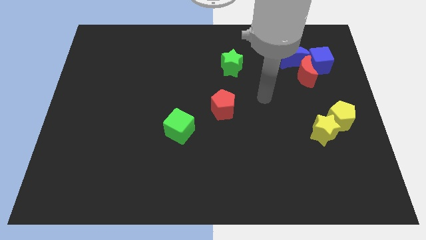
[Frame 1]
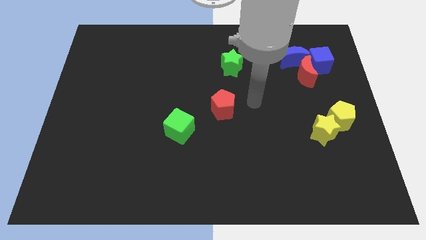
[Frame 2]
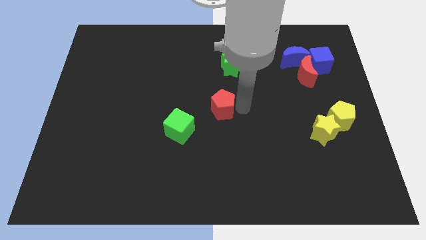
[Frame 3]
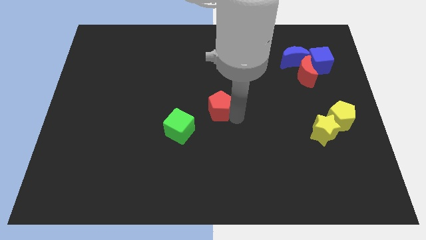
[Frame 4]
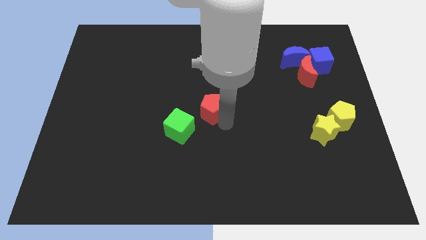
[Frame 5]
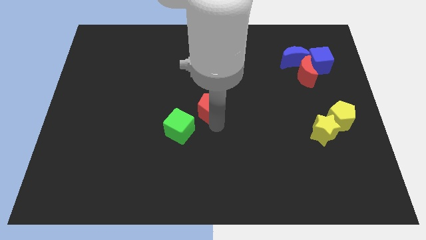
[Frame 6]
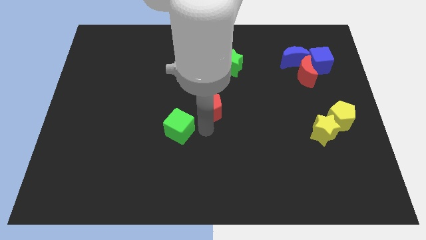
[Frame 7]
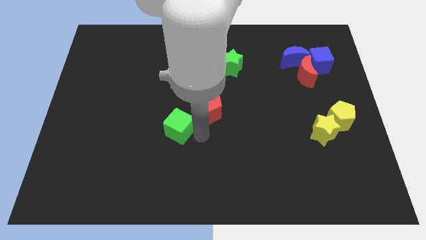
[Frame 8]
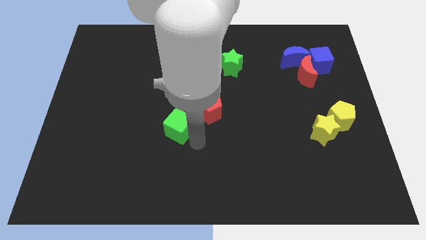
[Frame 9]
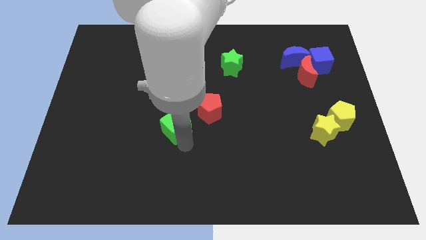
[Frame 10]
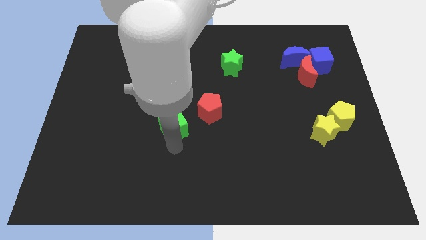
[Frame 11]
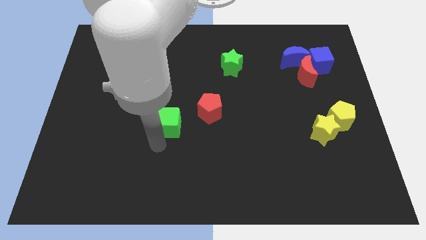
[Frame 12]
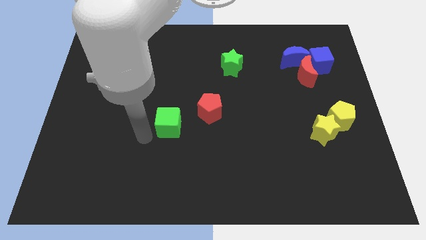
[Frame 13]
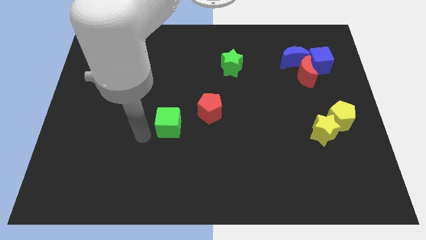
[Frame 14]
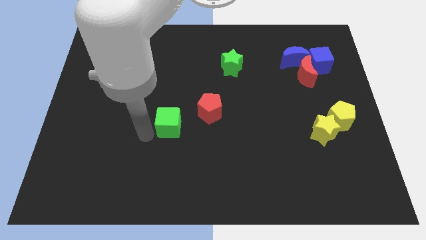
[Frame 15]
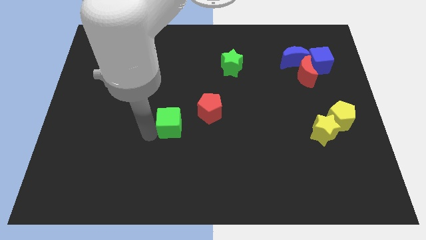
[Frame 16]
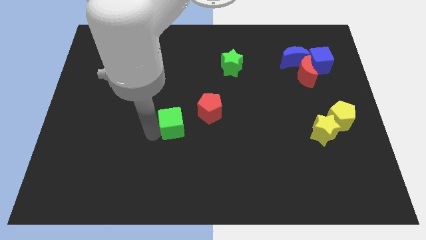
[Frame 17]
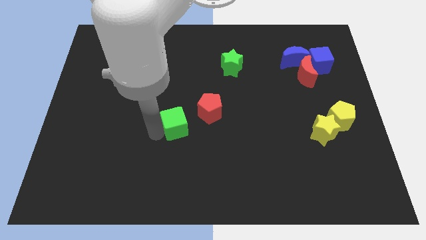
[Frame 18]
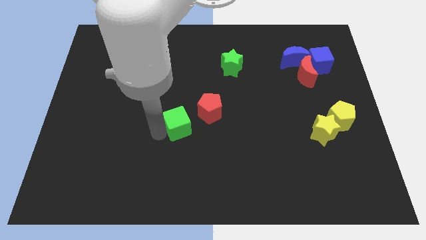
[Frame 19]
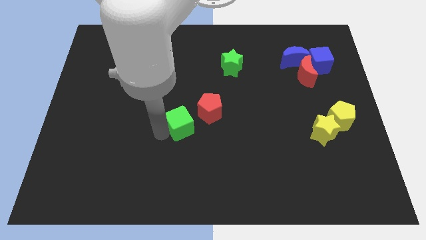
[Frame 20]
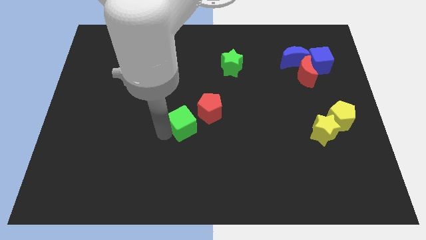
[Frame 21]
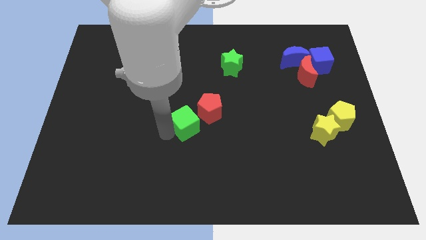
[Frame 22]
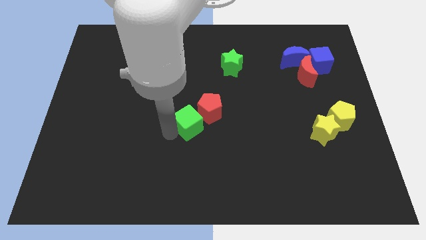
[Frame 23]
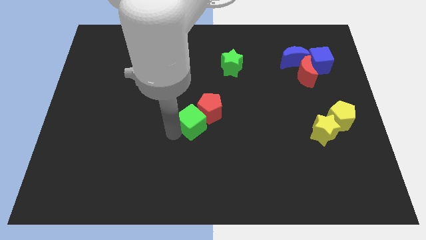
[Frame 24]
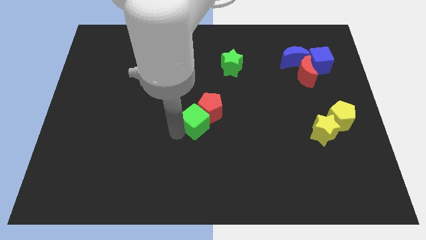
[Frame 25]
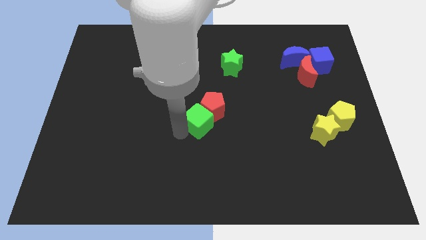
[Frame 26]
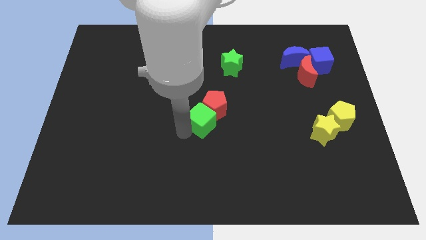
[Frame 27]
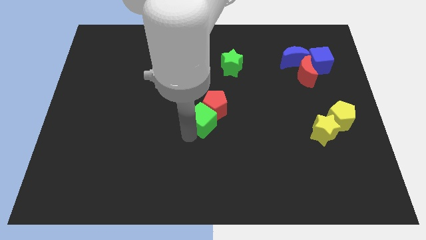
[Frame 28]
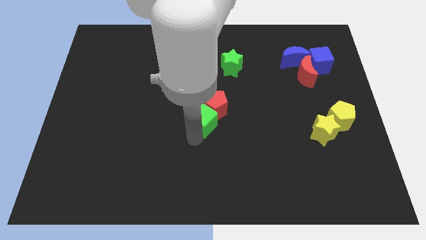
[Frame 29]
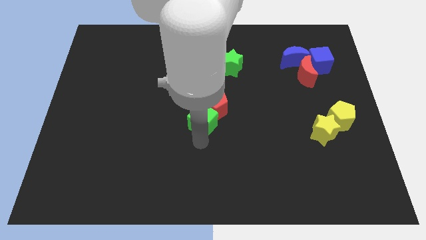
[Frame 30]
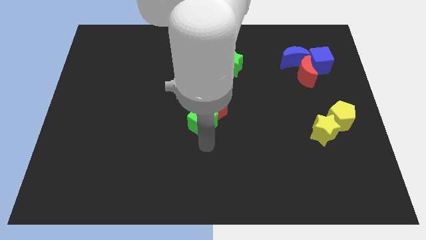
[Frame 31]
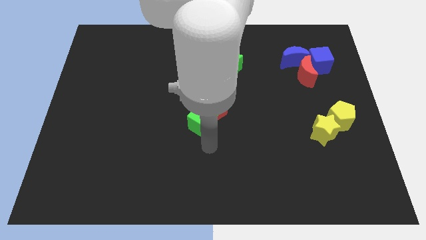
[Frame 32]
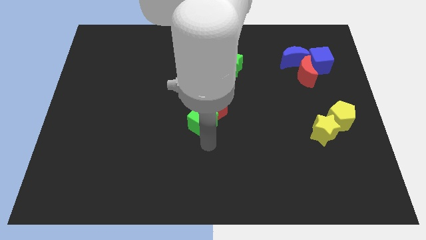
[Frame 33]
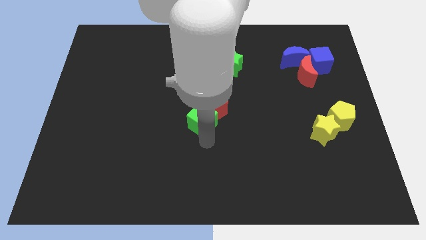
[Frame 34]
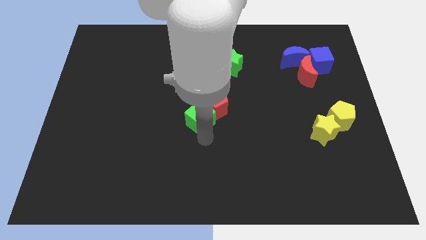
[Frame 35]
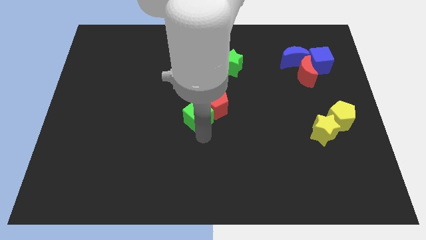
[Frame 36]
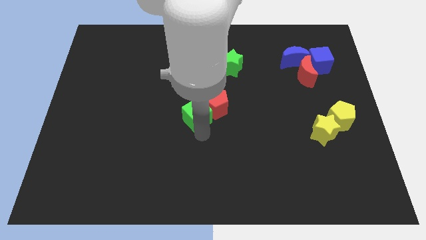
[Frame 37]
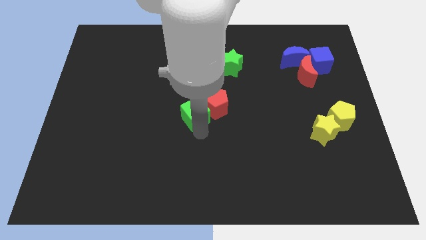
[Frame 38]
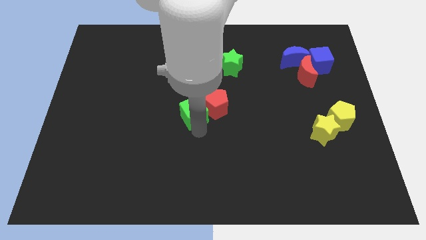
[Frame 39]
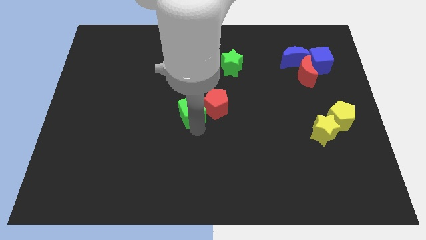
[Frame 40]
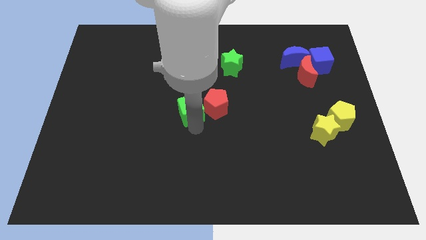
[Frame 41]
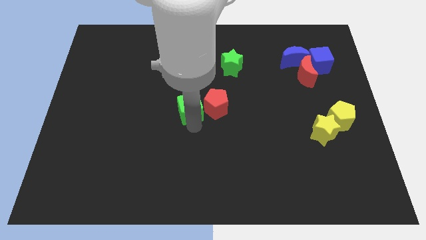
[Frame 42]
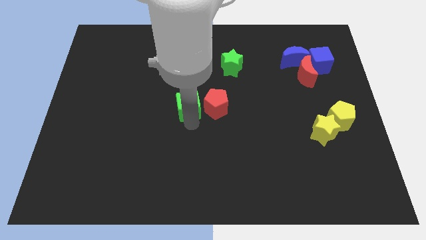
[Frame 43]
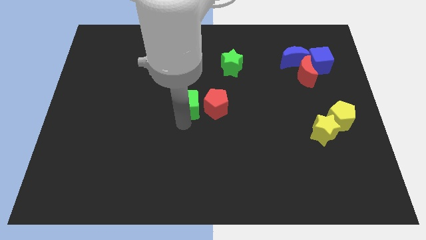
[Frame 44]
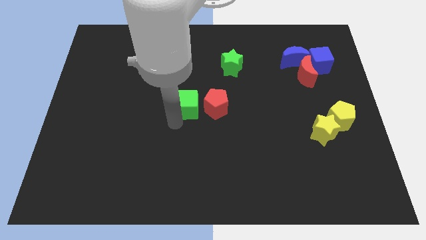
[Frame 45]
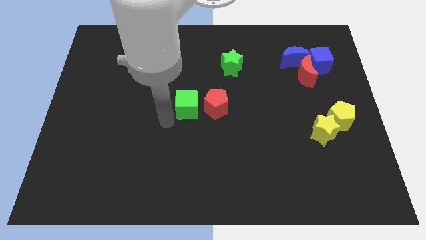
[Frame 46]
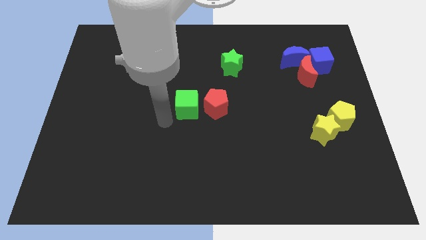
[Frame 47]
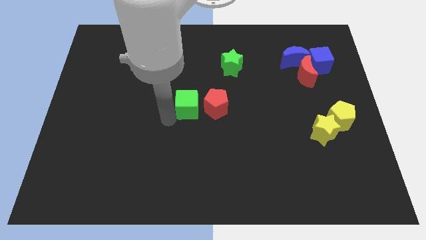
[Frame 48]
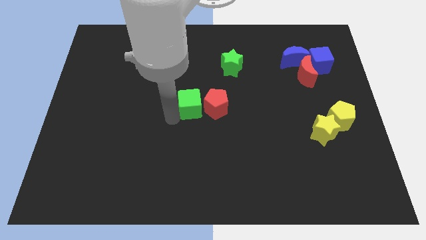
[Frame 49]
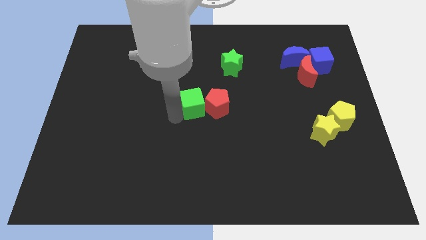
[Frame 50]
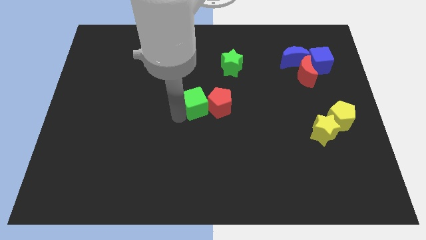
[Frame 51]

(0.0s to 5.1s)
slightly slide the green cube diagonally up and to the right

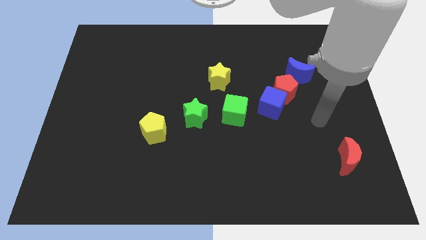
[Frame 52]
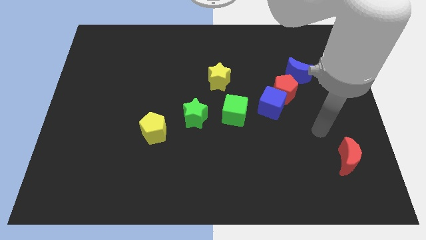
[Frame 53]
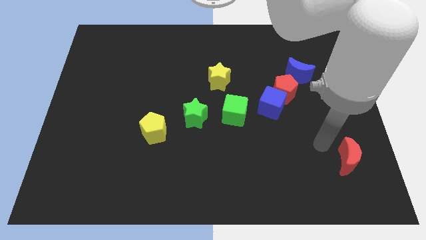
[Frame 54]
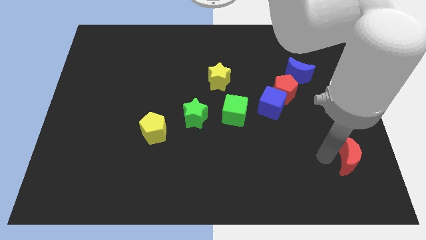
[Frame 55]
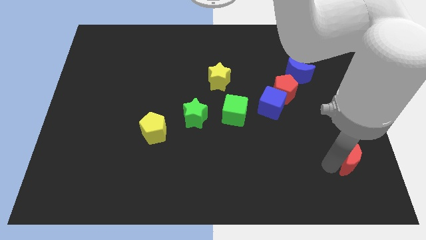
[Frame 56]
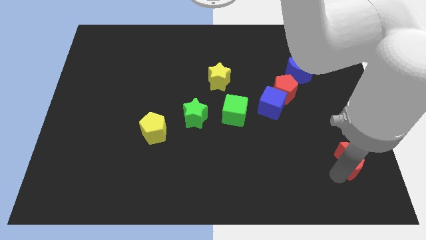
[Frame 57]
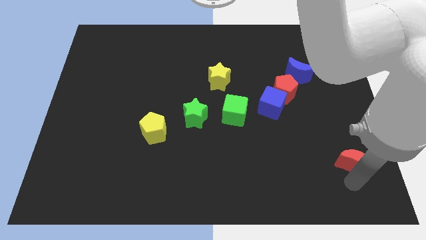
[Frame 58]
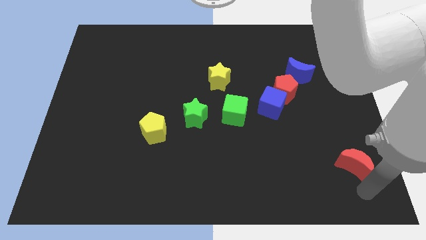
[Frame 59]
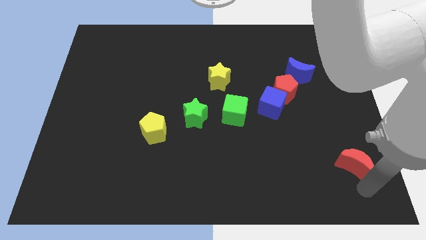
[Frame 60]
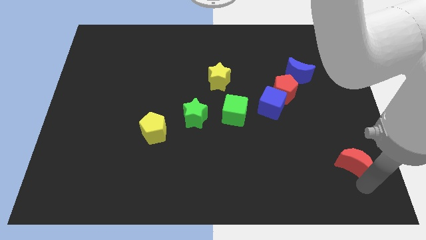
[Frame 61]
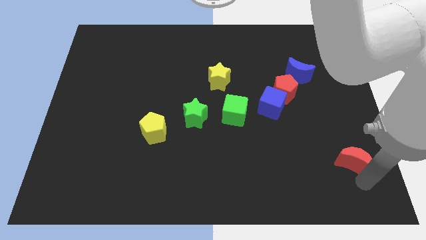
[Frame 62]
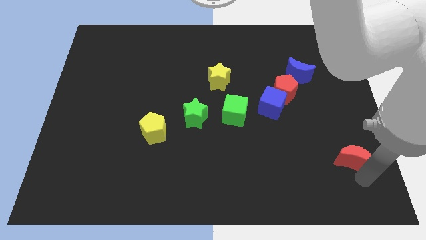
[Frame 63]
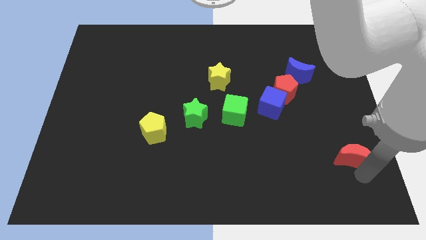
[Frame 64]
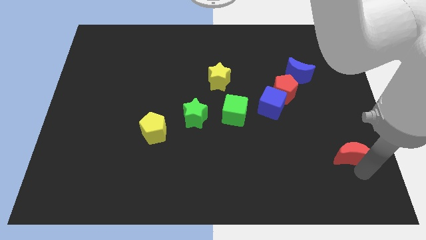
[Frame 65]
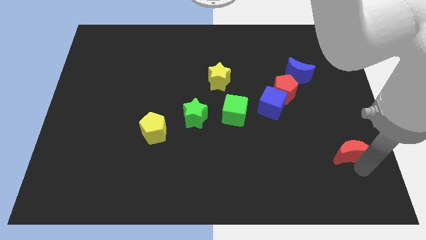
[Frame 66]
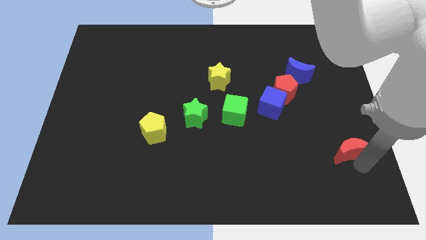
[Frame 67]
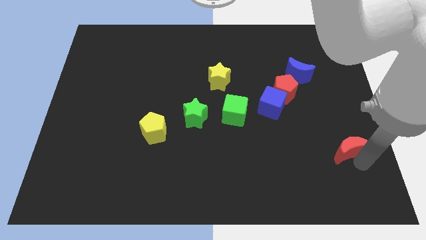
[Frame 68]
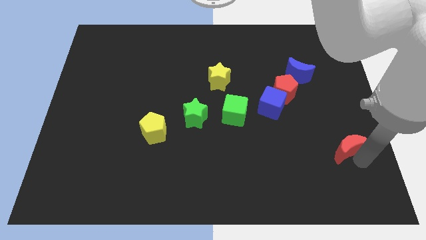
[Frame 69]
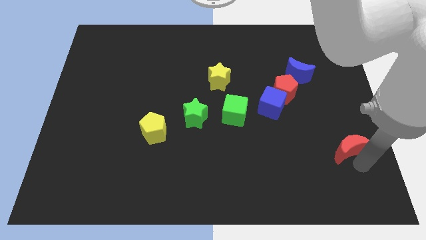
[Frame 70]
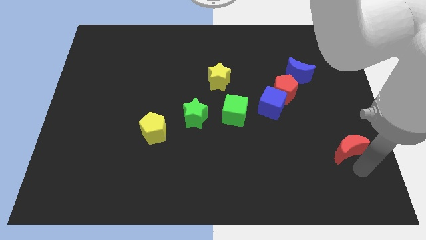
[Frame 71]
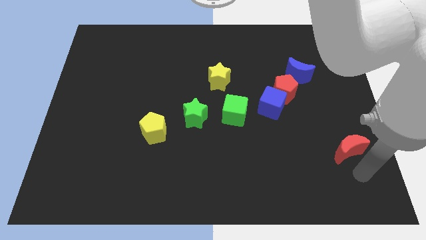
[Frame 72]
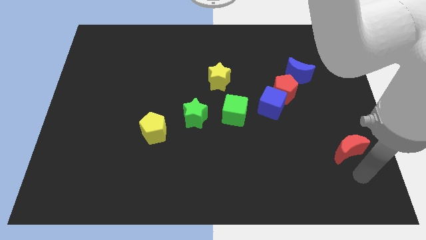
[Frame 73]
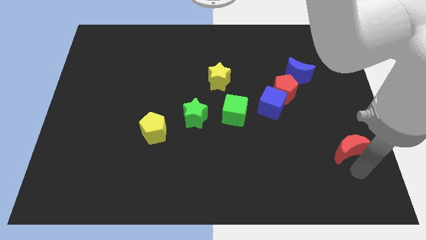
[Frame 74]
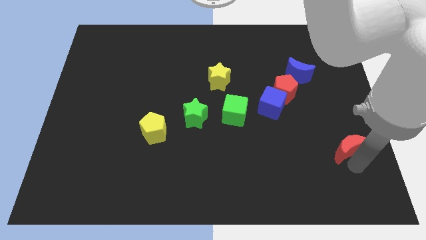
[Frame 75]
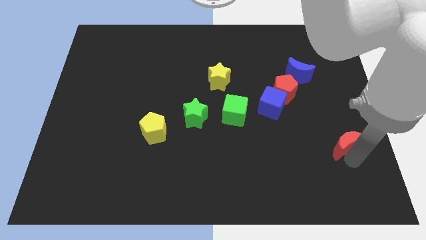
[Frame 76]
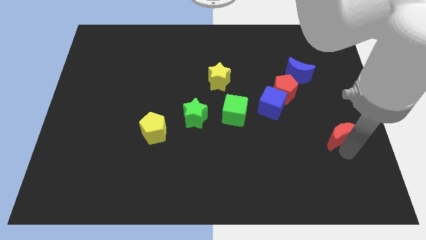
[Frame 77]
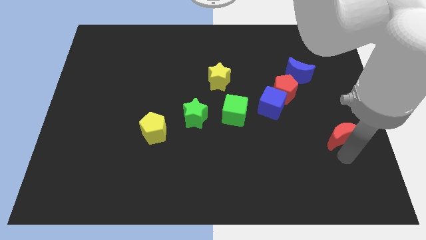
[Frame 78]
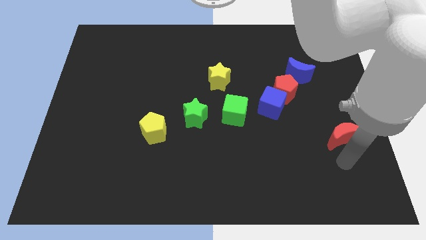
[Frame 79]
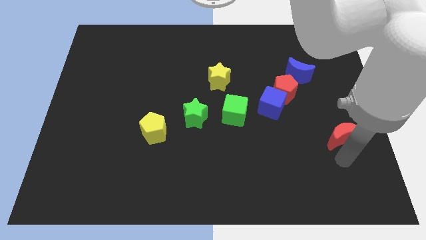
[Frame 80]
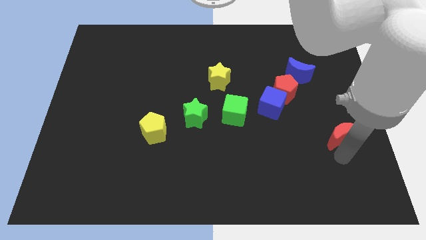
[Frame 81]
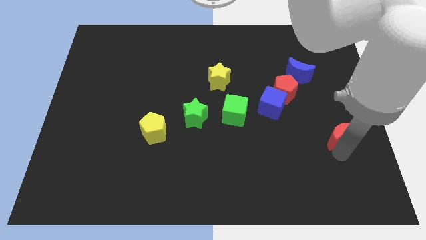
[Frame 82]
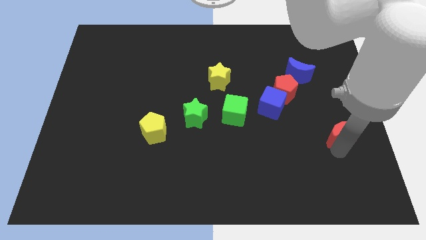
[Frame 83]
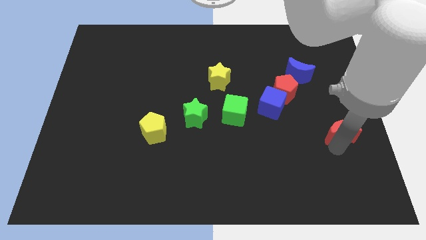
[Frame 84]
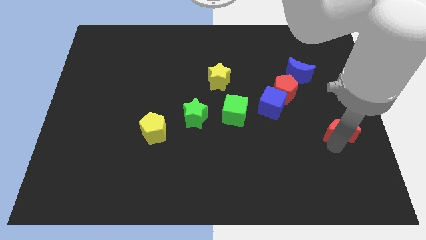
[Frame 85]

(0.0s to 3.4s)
move the red moon upwards a bit
